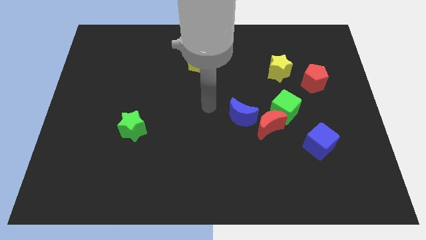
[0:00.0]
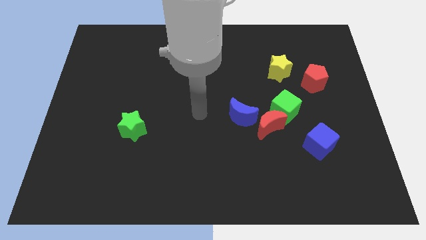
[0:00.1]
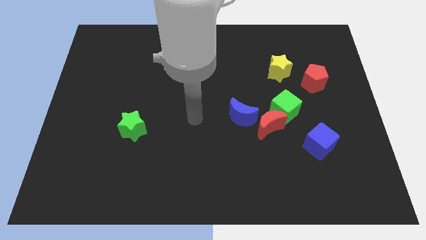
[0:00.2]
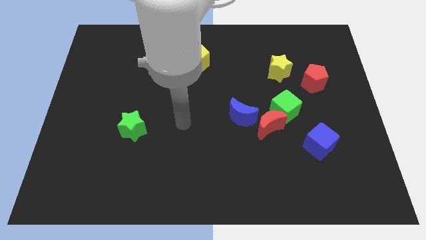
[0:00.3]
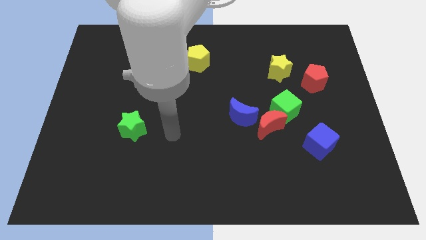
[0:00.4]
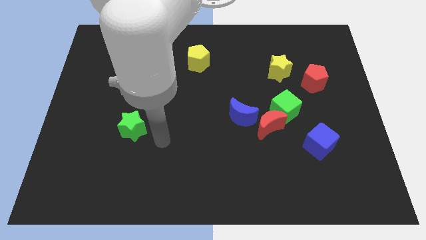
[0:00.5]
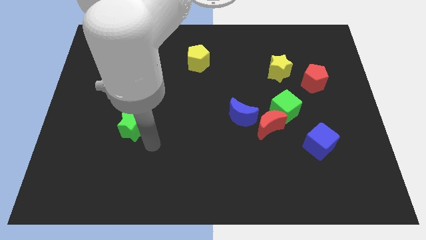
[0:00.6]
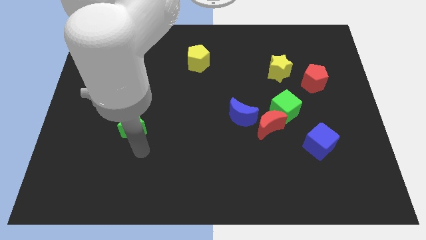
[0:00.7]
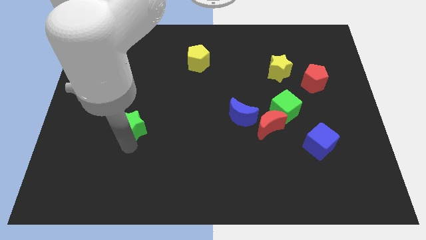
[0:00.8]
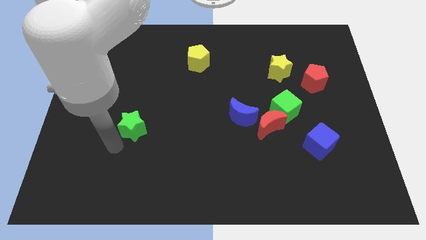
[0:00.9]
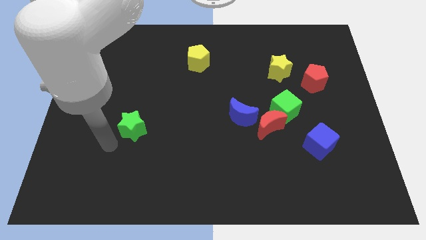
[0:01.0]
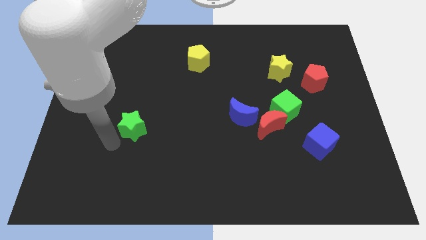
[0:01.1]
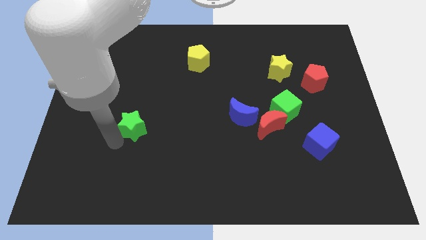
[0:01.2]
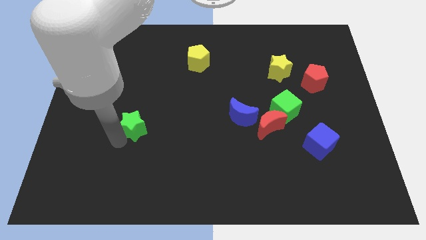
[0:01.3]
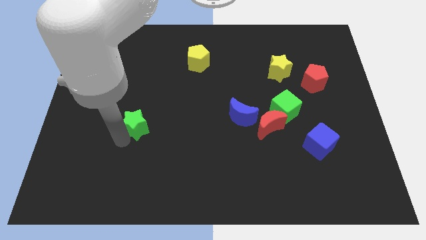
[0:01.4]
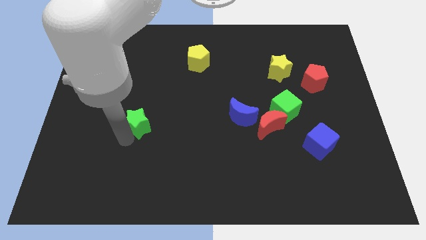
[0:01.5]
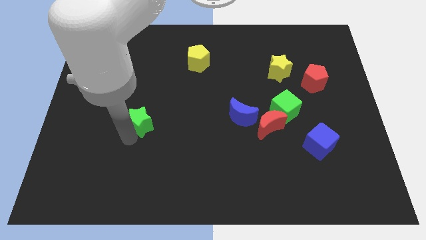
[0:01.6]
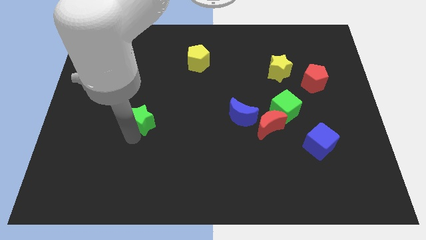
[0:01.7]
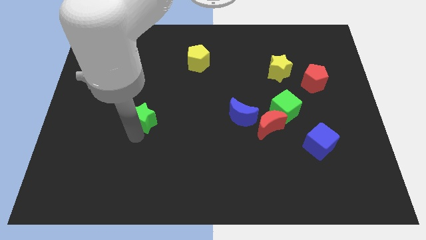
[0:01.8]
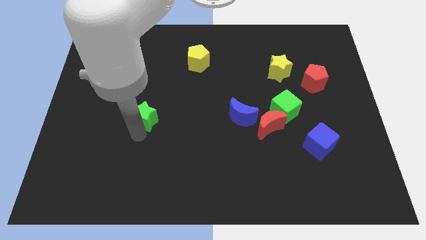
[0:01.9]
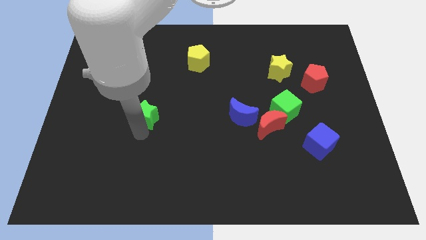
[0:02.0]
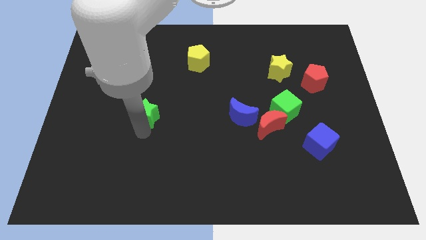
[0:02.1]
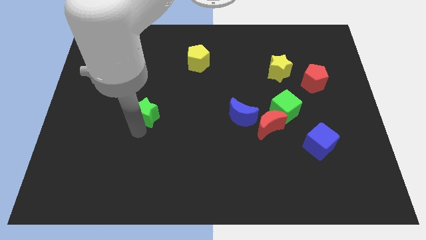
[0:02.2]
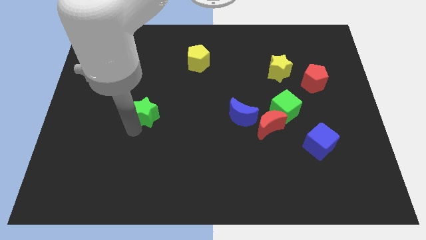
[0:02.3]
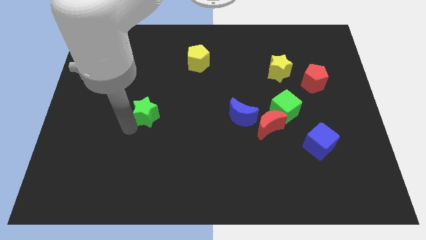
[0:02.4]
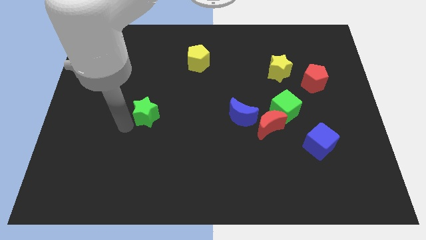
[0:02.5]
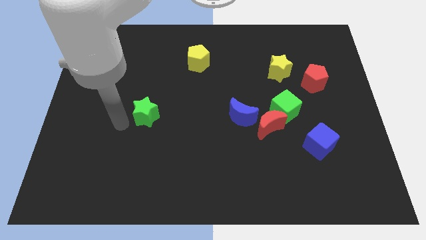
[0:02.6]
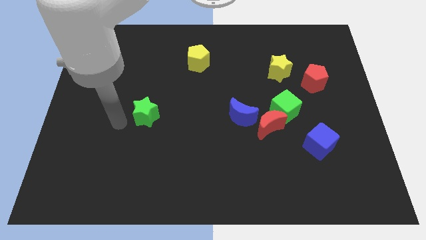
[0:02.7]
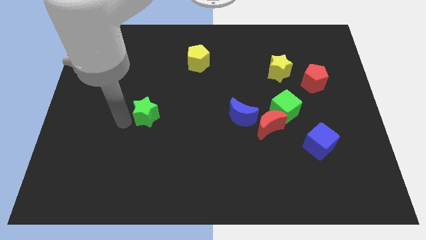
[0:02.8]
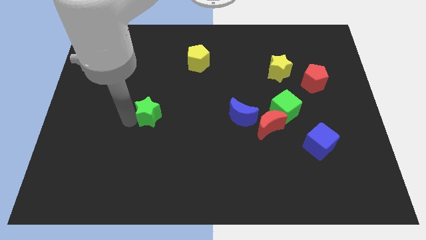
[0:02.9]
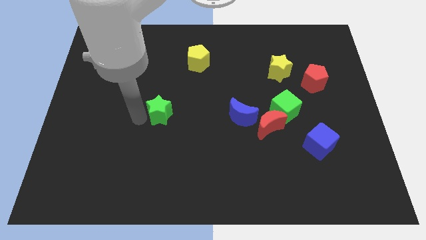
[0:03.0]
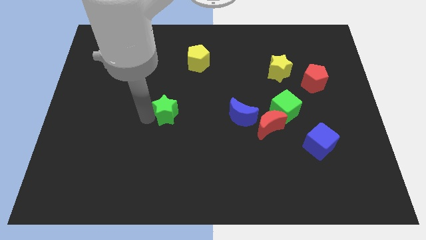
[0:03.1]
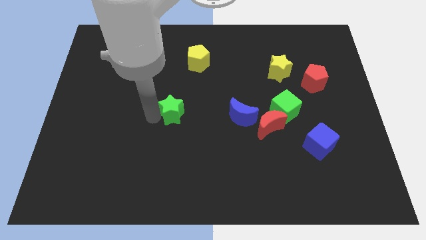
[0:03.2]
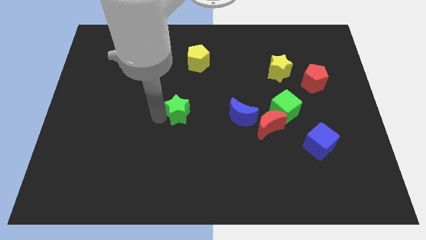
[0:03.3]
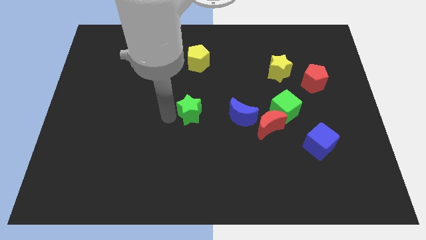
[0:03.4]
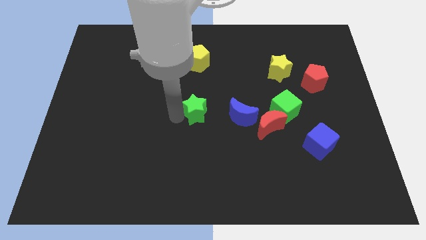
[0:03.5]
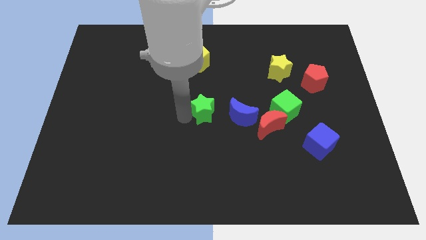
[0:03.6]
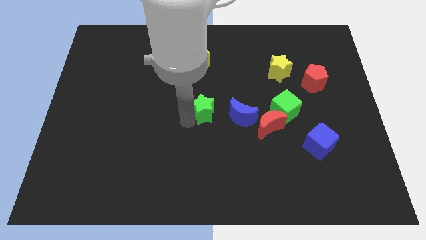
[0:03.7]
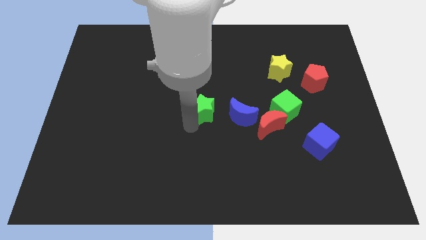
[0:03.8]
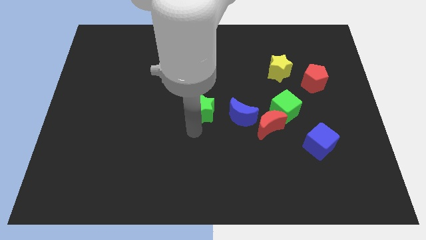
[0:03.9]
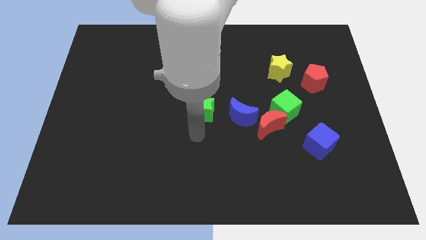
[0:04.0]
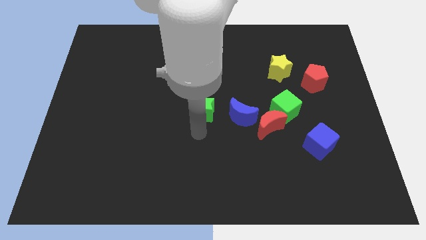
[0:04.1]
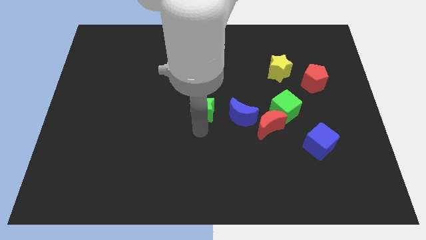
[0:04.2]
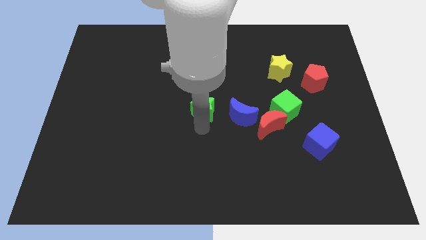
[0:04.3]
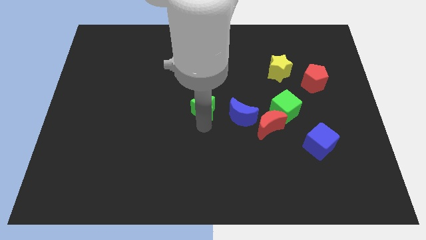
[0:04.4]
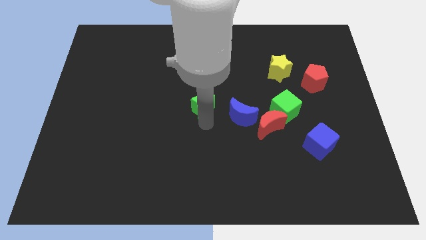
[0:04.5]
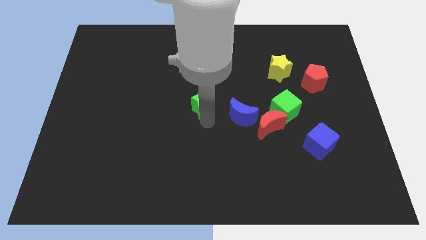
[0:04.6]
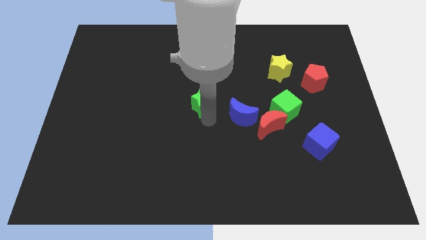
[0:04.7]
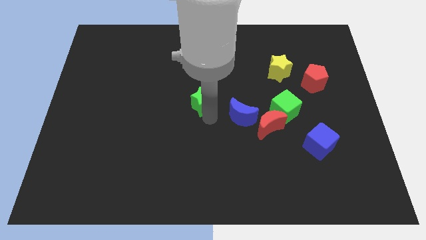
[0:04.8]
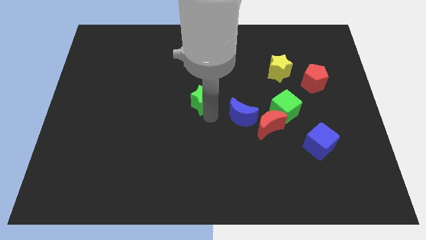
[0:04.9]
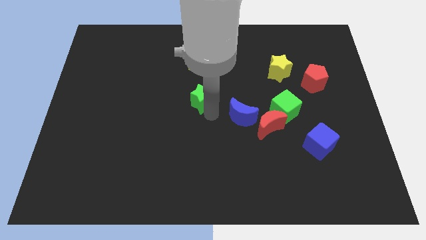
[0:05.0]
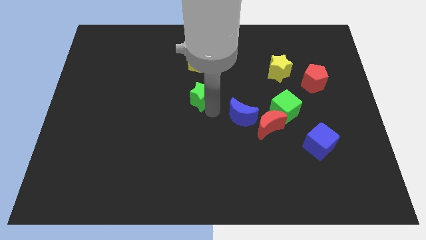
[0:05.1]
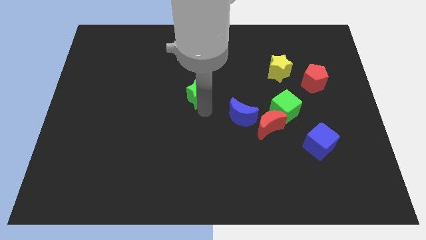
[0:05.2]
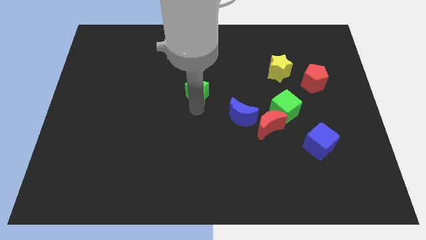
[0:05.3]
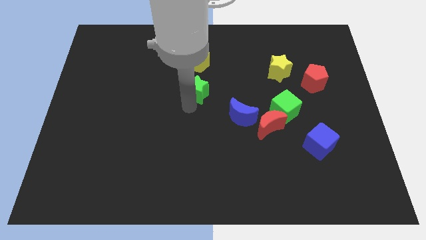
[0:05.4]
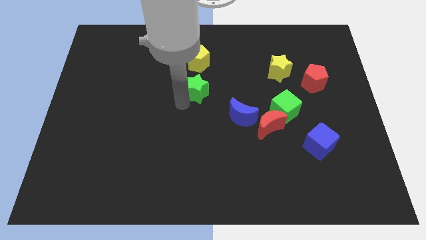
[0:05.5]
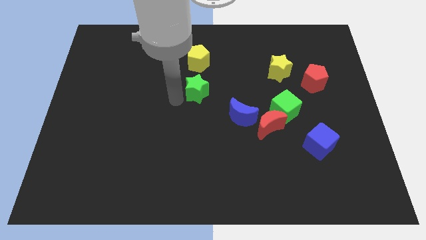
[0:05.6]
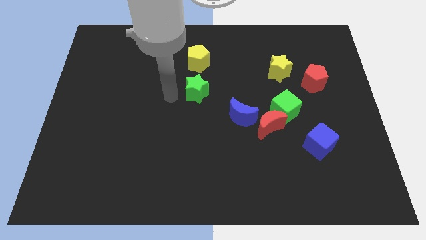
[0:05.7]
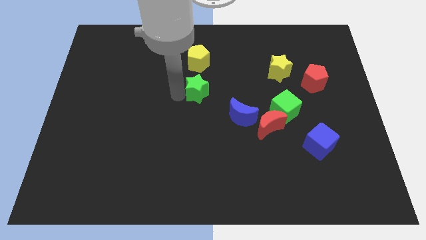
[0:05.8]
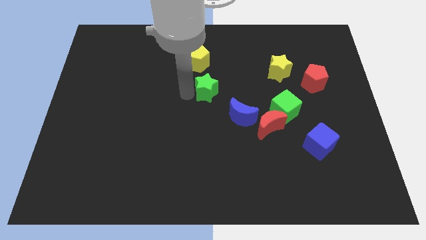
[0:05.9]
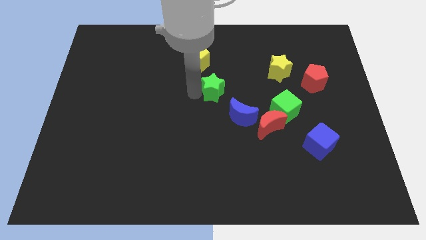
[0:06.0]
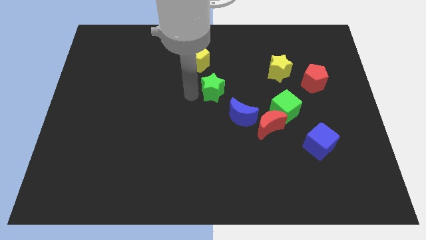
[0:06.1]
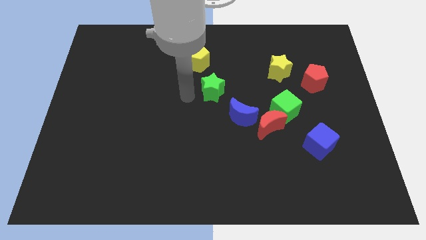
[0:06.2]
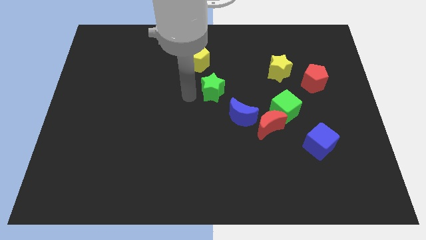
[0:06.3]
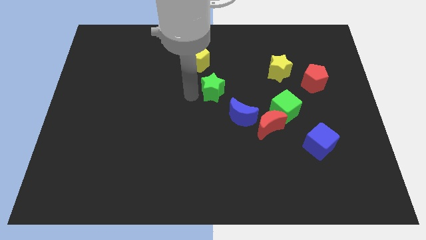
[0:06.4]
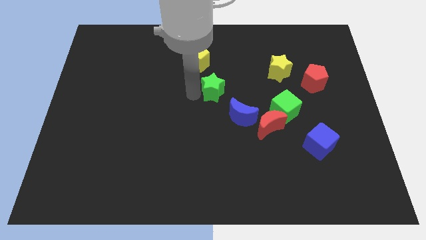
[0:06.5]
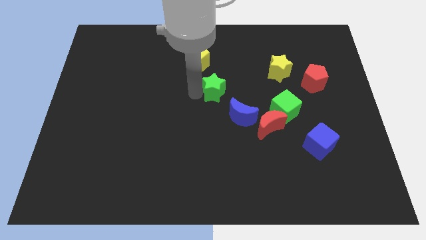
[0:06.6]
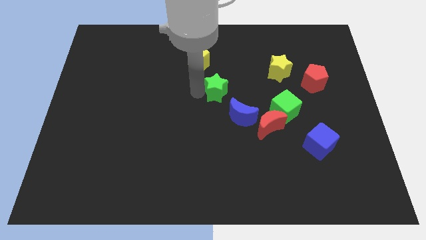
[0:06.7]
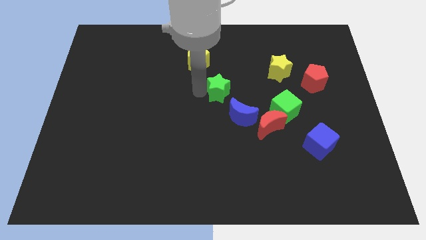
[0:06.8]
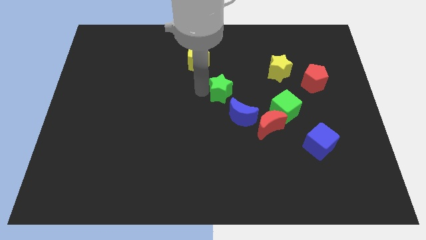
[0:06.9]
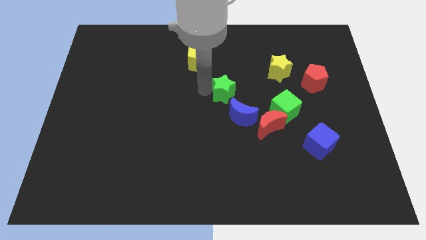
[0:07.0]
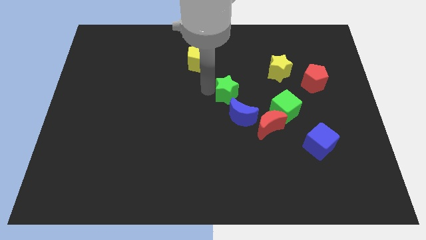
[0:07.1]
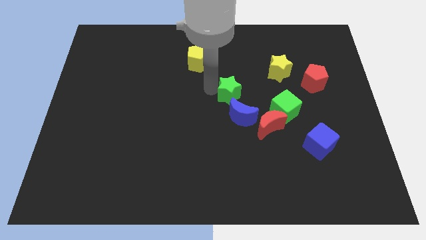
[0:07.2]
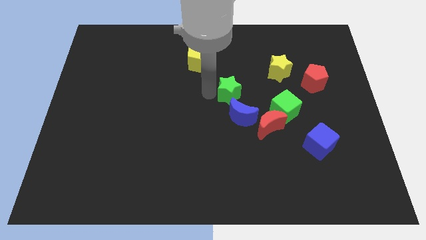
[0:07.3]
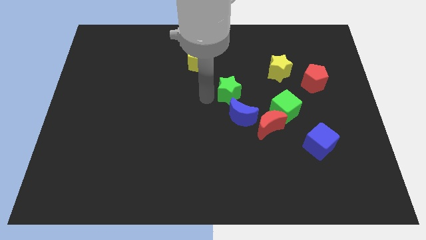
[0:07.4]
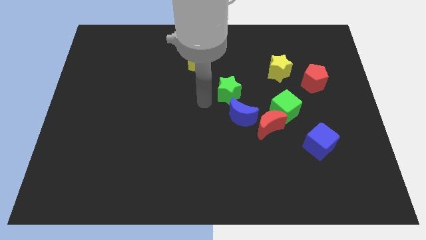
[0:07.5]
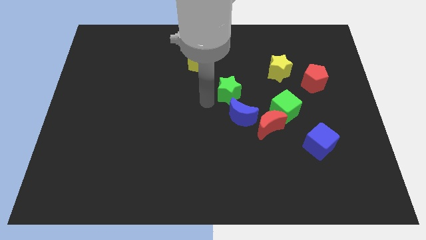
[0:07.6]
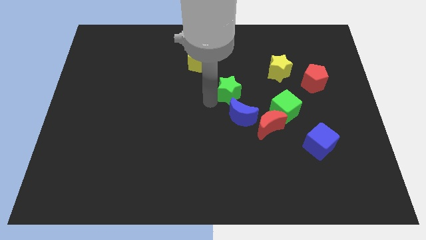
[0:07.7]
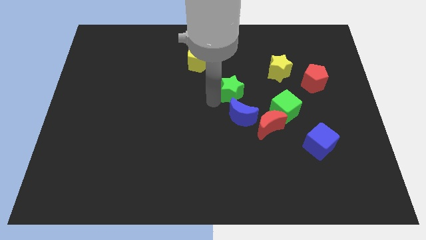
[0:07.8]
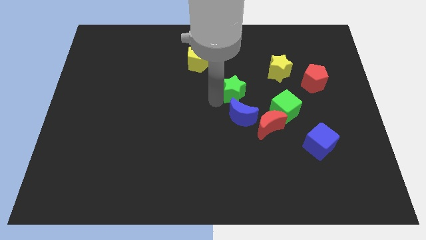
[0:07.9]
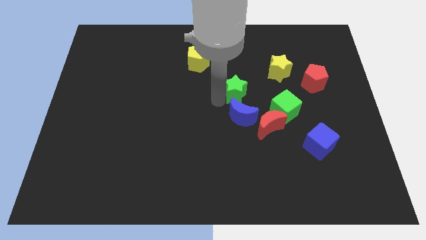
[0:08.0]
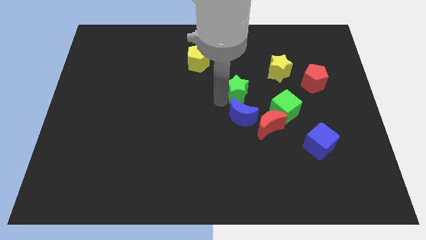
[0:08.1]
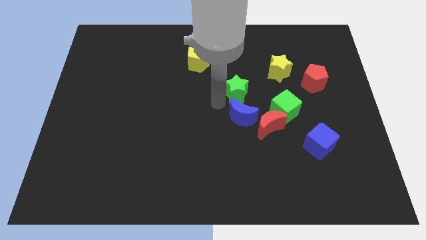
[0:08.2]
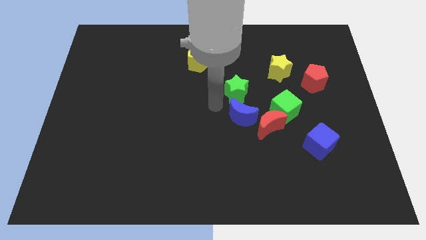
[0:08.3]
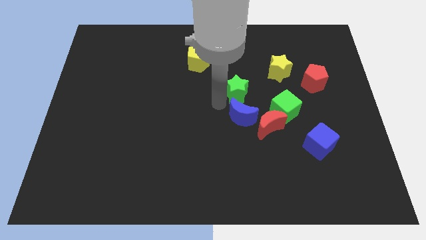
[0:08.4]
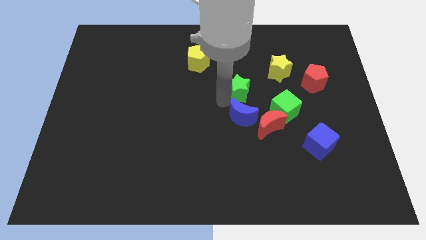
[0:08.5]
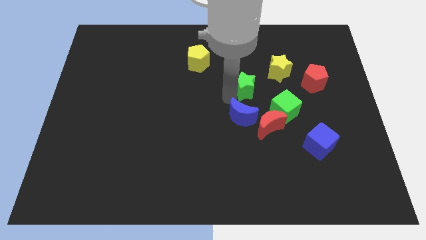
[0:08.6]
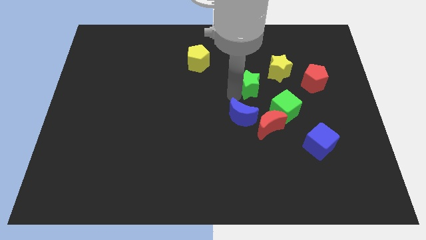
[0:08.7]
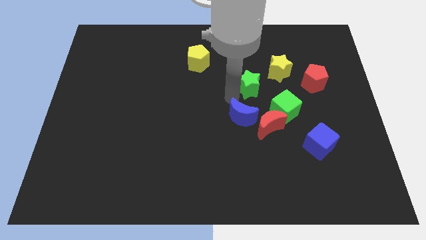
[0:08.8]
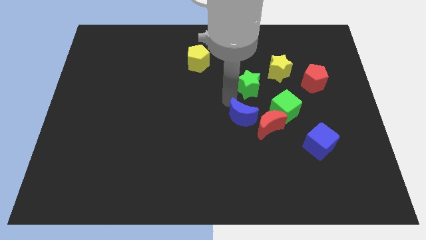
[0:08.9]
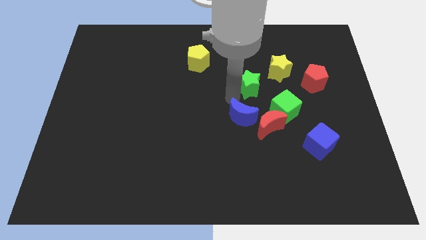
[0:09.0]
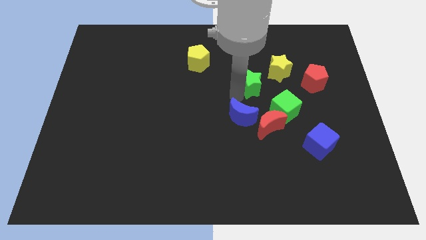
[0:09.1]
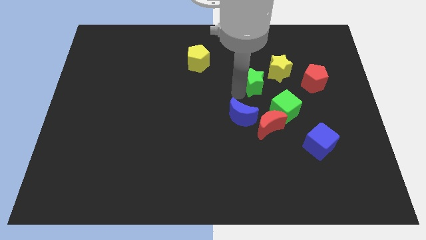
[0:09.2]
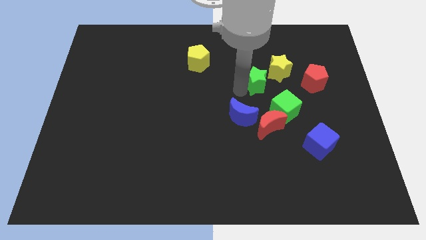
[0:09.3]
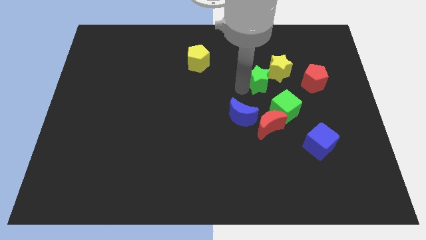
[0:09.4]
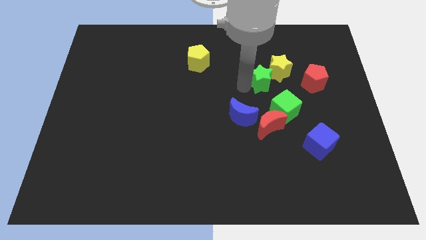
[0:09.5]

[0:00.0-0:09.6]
put the green star to the yellow star
